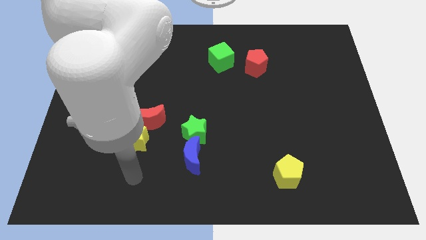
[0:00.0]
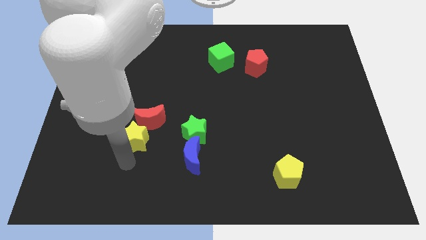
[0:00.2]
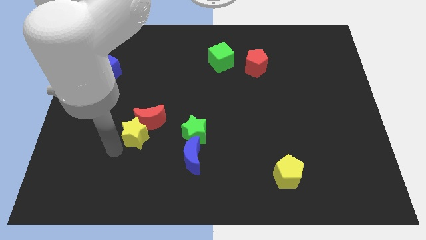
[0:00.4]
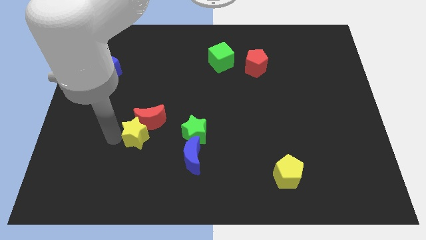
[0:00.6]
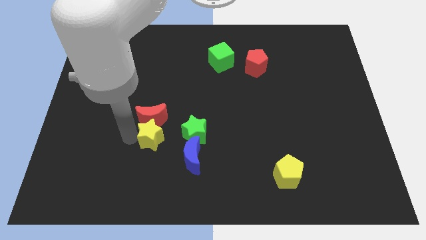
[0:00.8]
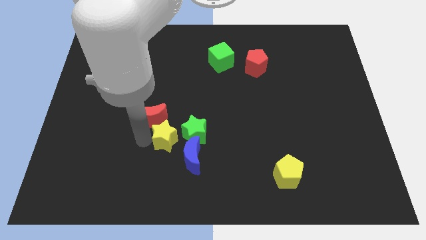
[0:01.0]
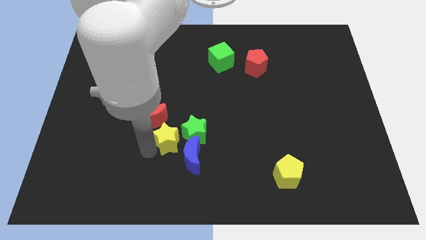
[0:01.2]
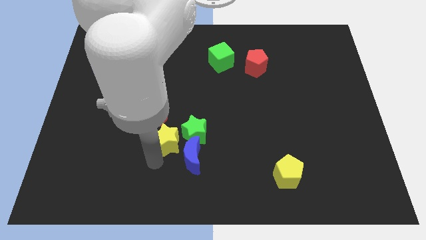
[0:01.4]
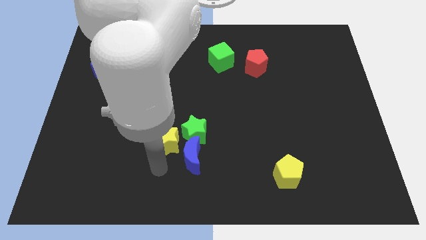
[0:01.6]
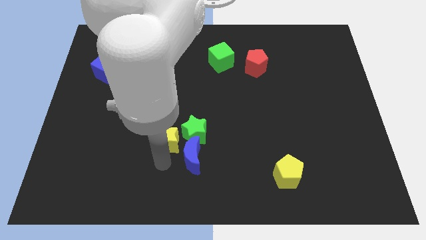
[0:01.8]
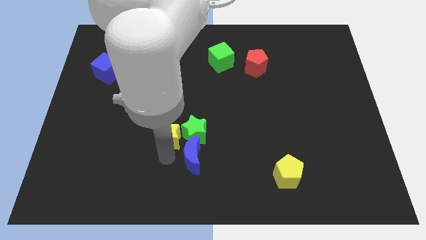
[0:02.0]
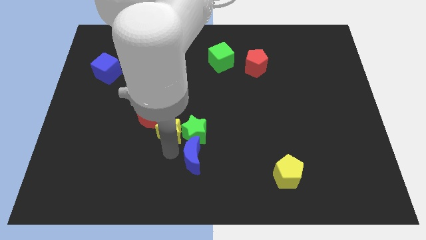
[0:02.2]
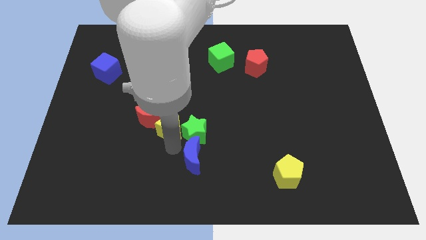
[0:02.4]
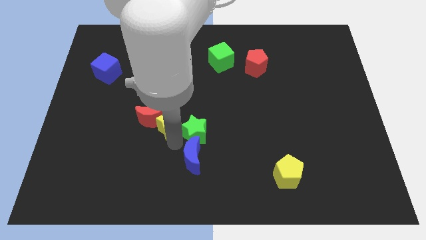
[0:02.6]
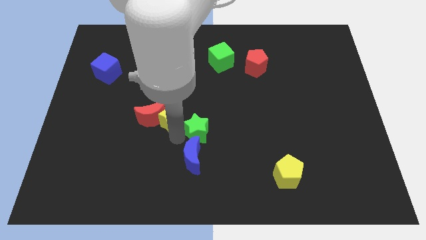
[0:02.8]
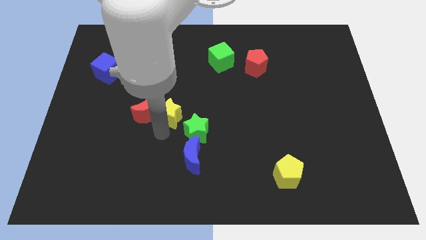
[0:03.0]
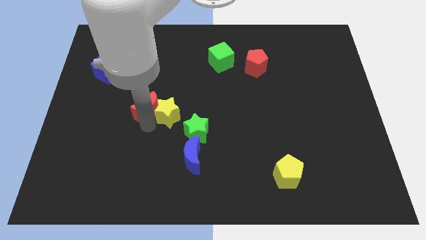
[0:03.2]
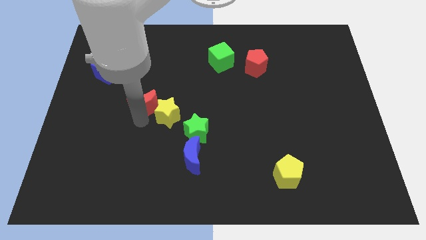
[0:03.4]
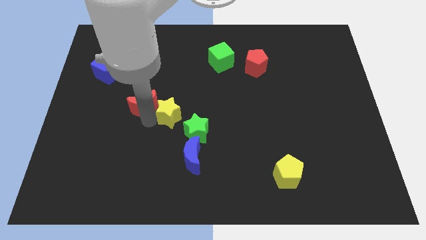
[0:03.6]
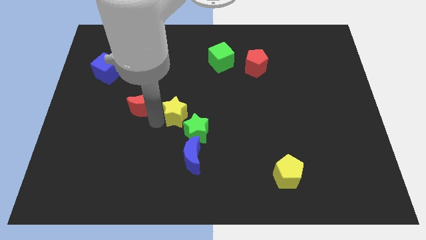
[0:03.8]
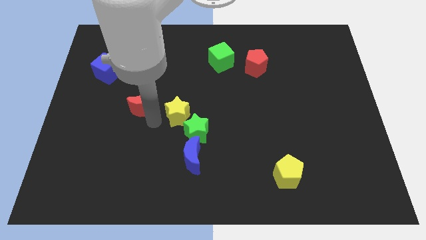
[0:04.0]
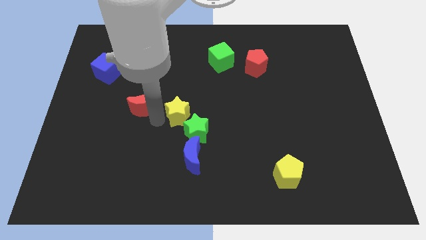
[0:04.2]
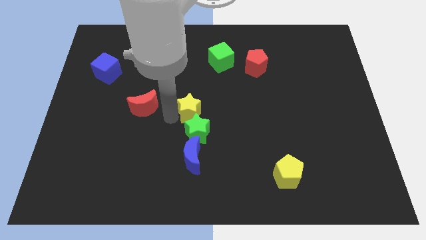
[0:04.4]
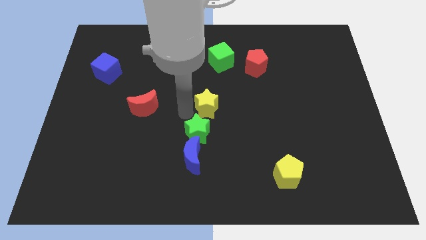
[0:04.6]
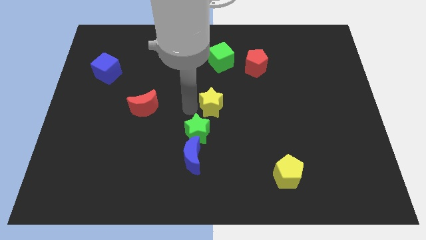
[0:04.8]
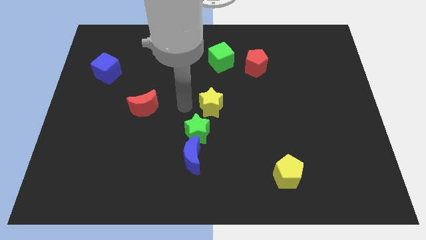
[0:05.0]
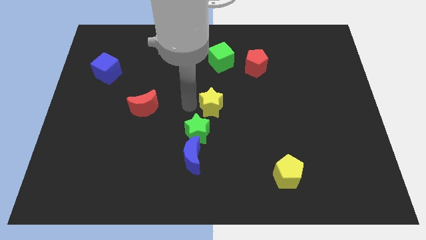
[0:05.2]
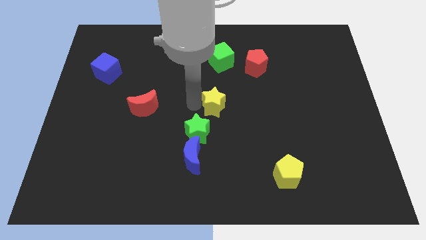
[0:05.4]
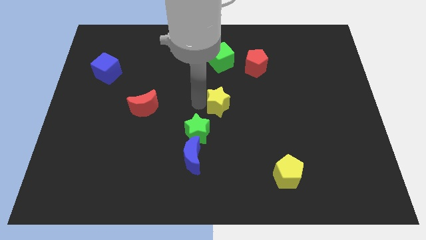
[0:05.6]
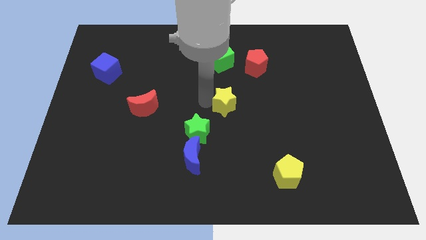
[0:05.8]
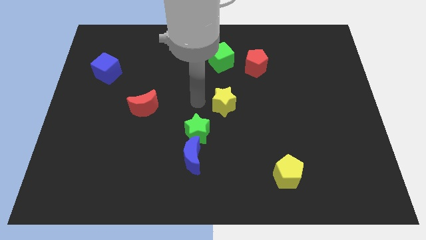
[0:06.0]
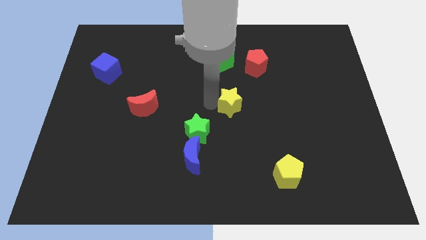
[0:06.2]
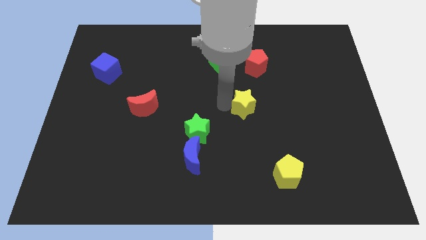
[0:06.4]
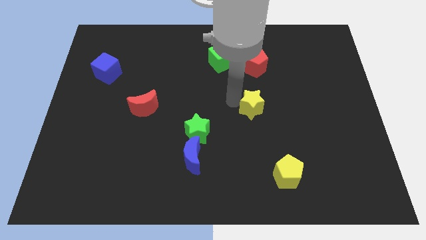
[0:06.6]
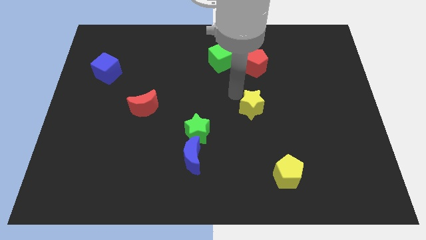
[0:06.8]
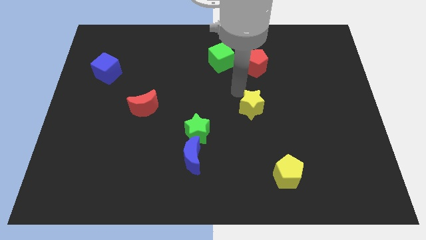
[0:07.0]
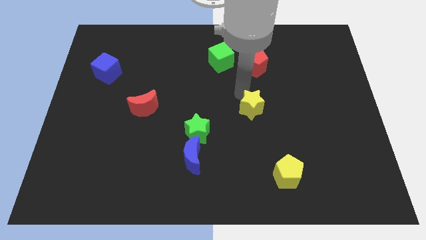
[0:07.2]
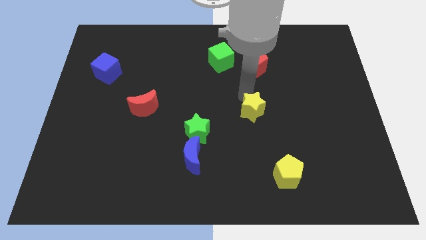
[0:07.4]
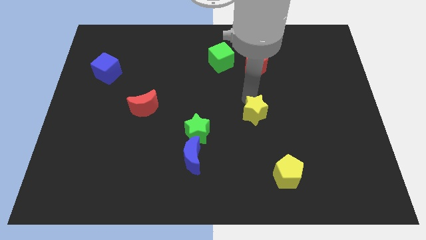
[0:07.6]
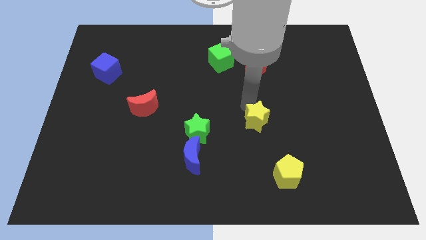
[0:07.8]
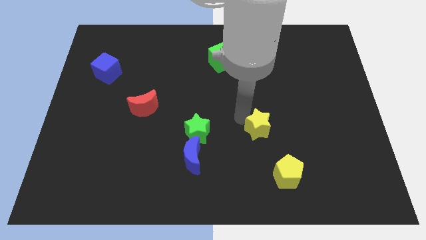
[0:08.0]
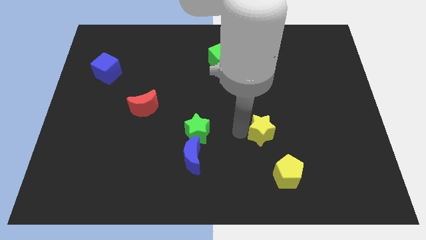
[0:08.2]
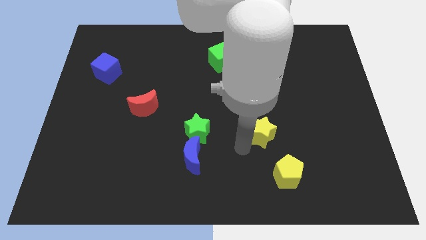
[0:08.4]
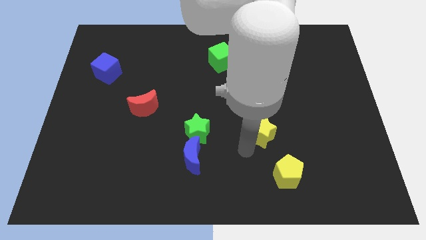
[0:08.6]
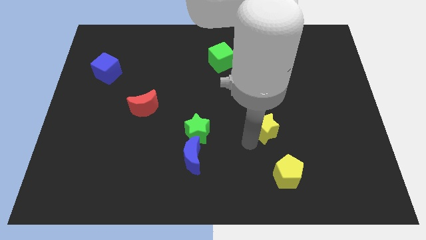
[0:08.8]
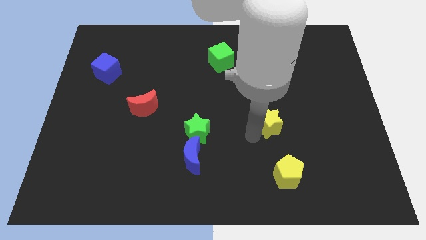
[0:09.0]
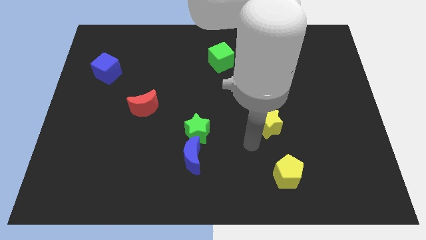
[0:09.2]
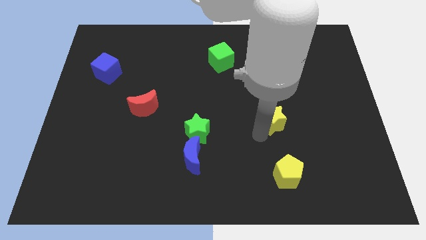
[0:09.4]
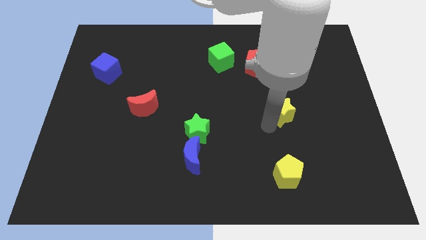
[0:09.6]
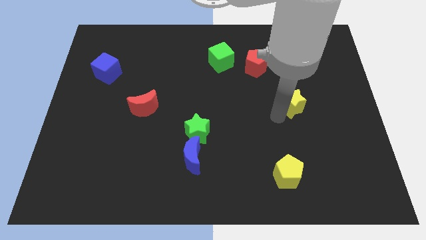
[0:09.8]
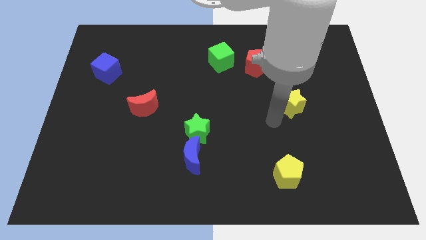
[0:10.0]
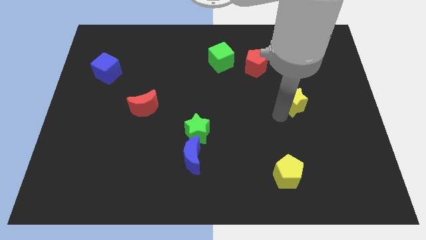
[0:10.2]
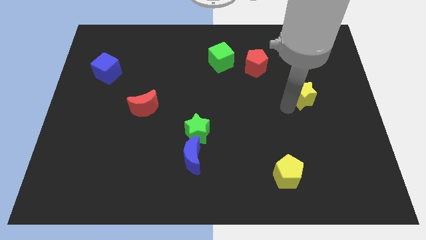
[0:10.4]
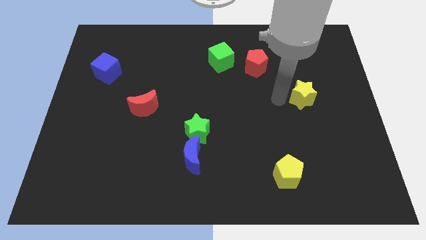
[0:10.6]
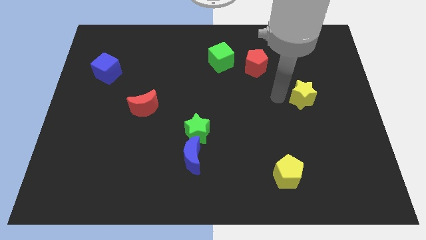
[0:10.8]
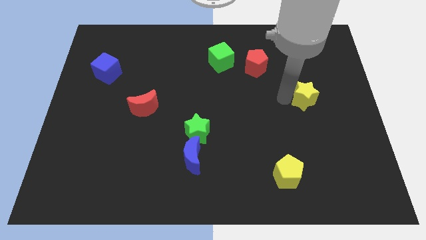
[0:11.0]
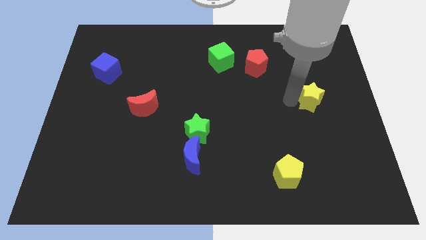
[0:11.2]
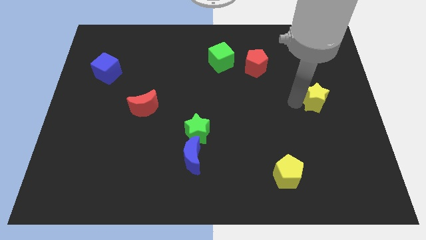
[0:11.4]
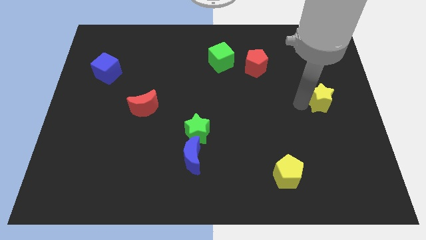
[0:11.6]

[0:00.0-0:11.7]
slide the yellow star to the right side of the board

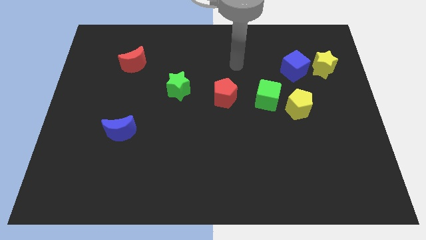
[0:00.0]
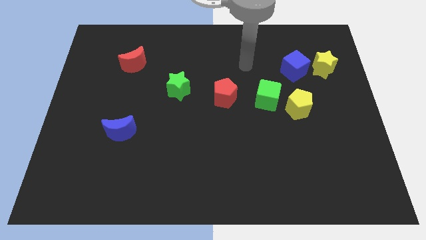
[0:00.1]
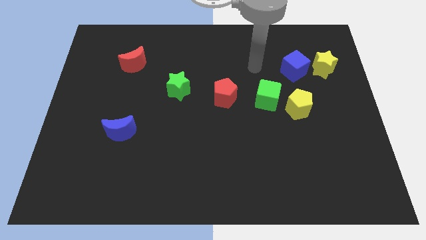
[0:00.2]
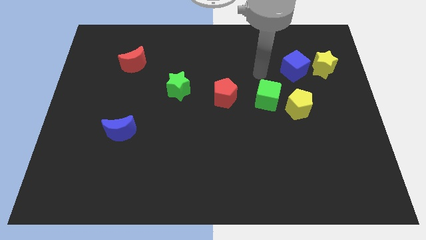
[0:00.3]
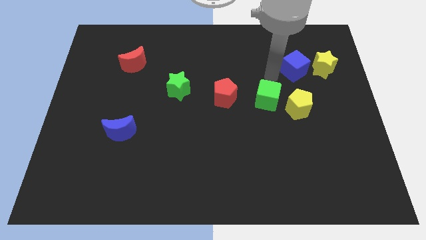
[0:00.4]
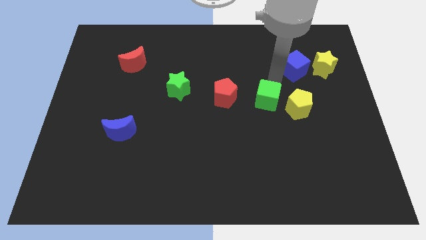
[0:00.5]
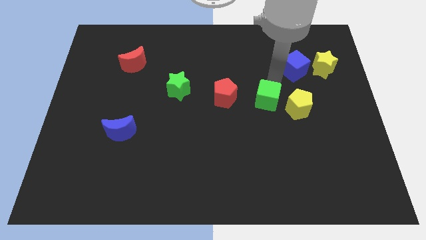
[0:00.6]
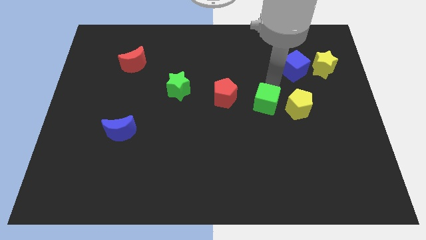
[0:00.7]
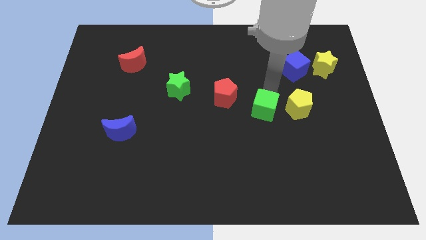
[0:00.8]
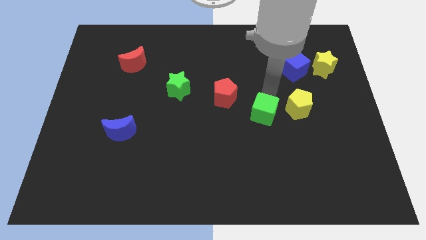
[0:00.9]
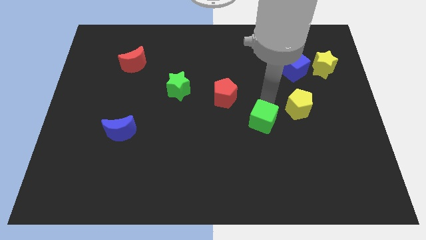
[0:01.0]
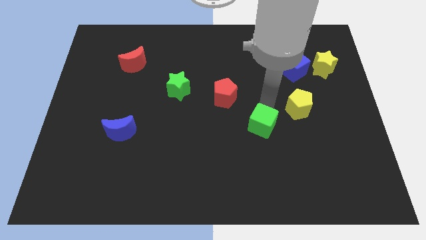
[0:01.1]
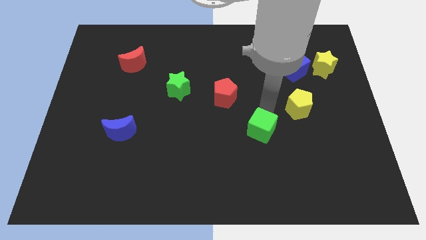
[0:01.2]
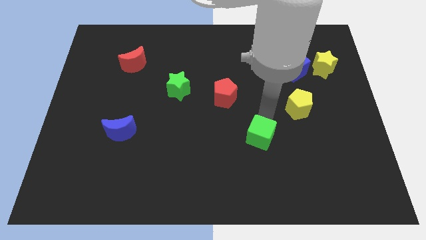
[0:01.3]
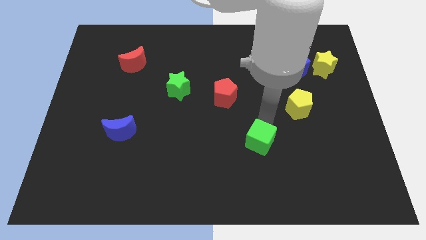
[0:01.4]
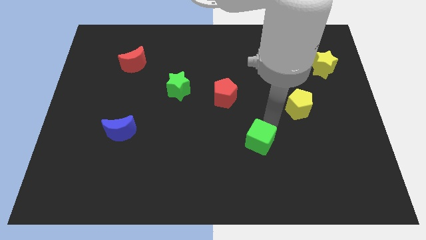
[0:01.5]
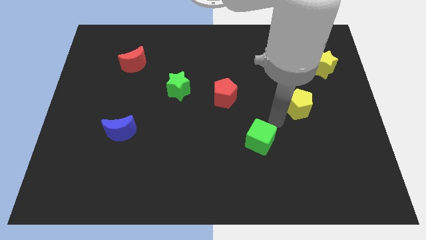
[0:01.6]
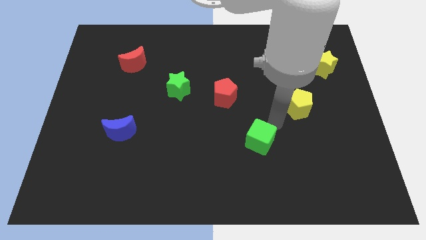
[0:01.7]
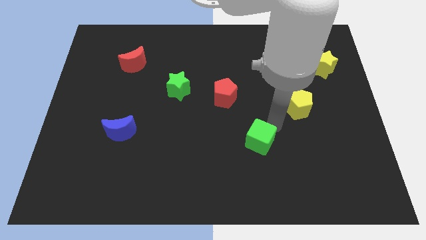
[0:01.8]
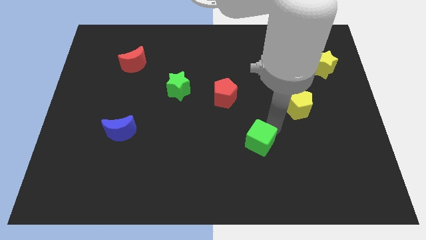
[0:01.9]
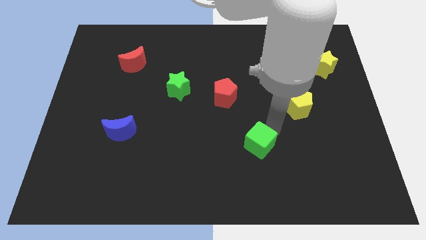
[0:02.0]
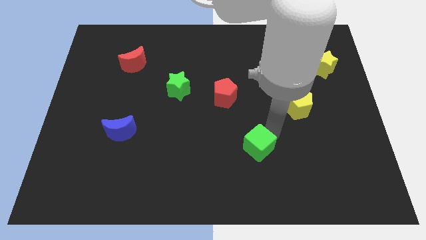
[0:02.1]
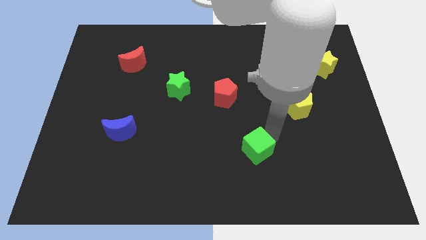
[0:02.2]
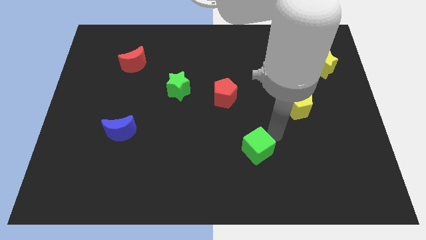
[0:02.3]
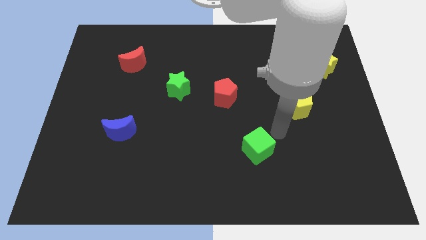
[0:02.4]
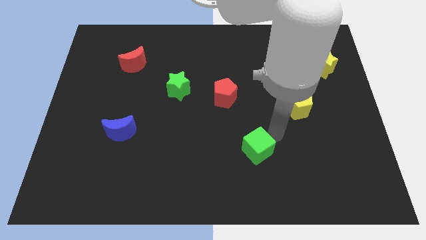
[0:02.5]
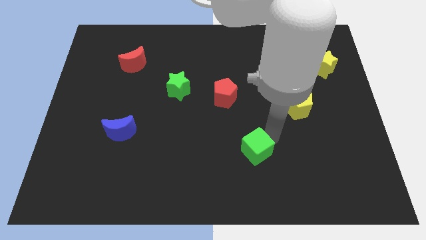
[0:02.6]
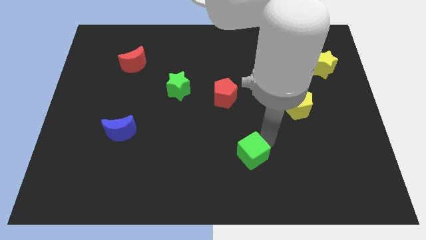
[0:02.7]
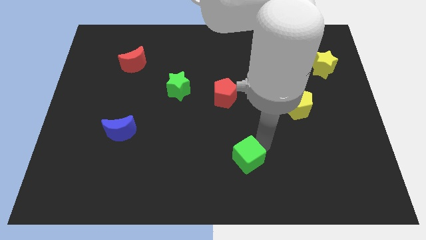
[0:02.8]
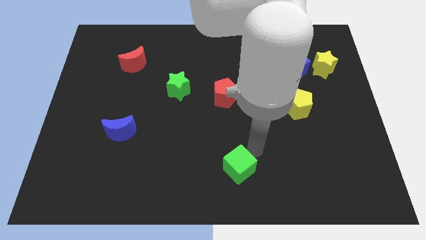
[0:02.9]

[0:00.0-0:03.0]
put the green cube to the bottom
